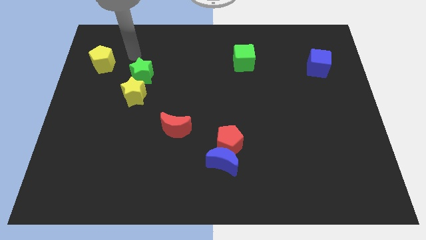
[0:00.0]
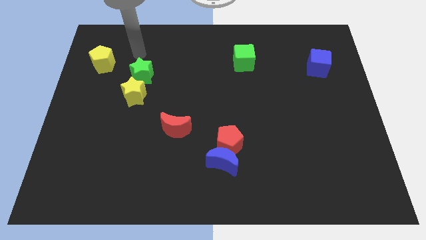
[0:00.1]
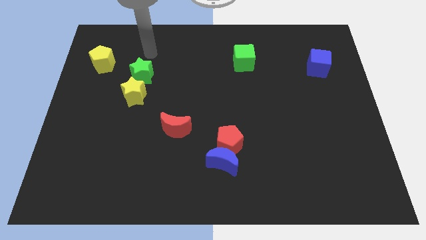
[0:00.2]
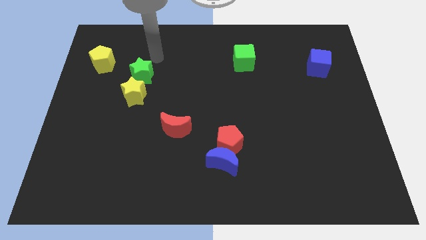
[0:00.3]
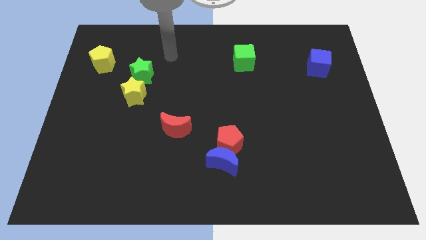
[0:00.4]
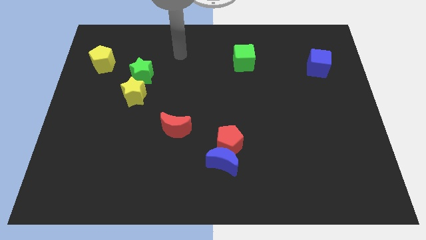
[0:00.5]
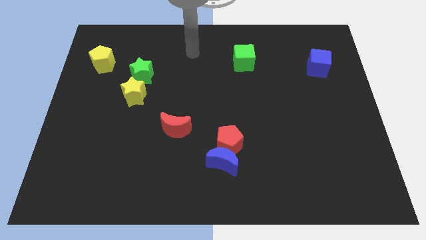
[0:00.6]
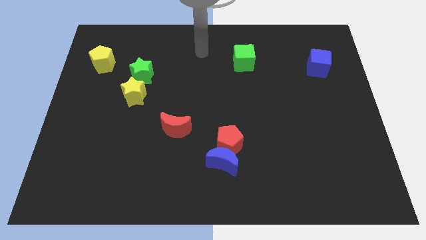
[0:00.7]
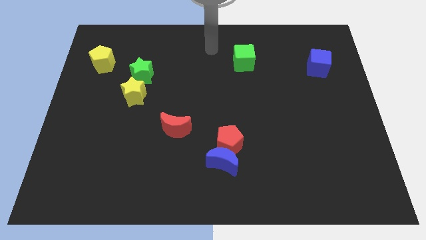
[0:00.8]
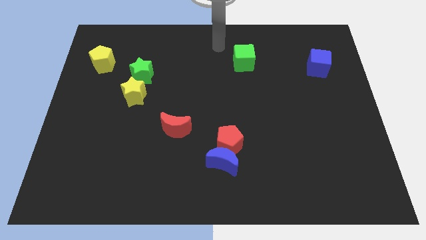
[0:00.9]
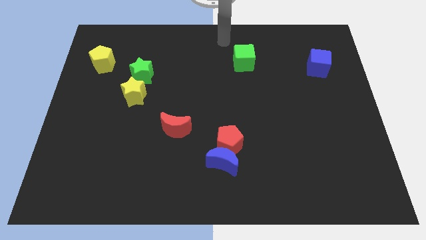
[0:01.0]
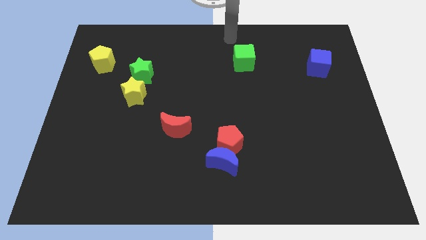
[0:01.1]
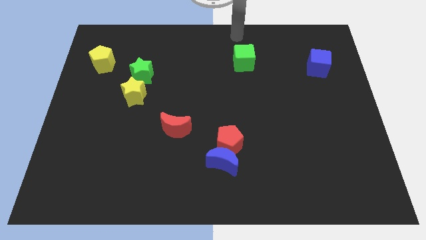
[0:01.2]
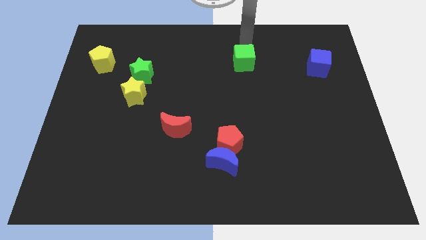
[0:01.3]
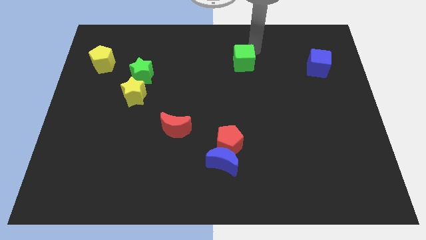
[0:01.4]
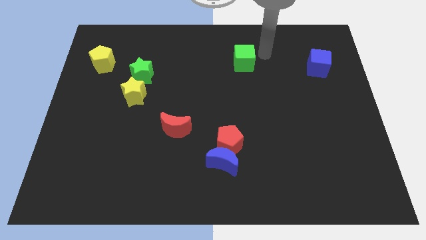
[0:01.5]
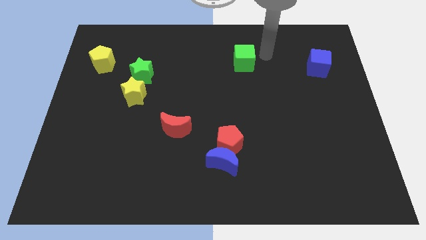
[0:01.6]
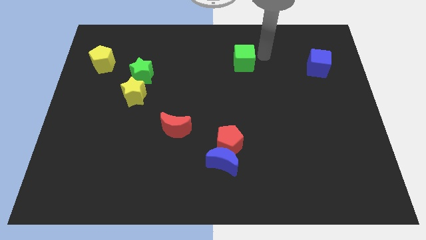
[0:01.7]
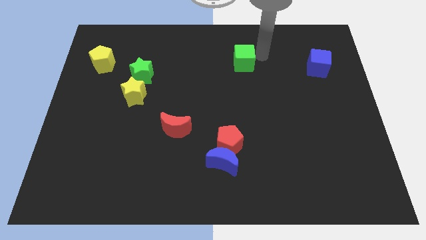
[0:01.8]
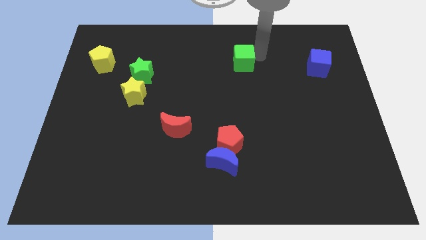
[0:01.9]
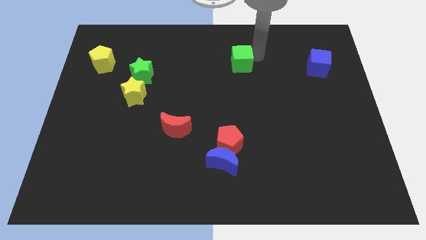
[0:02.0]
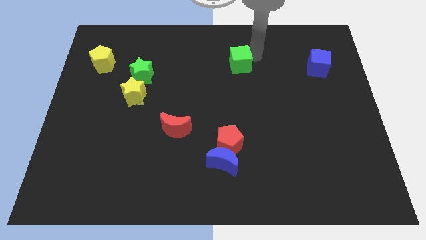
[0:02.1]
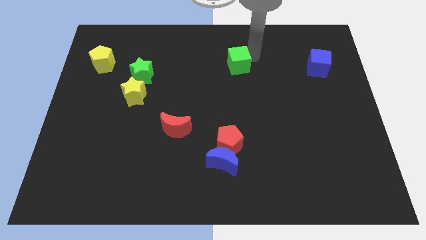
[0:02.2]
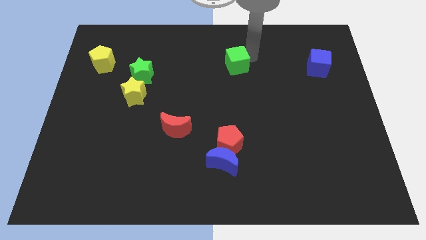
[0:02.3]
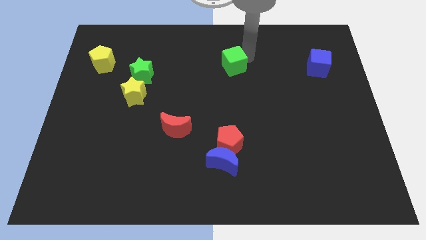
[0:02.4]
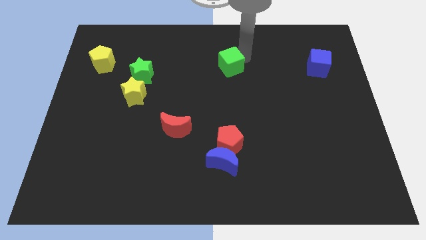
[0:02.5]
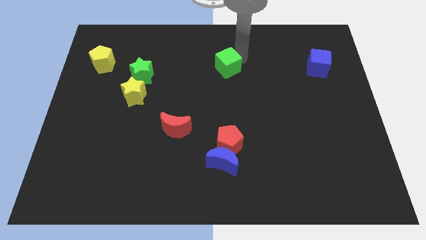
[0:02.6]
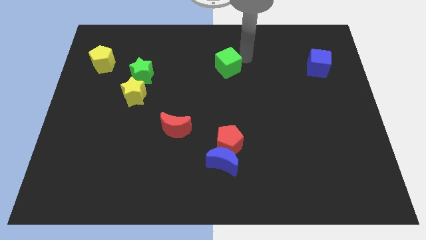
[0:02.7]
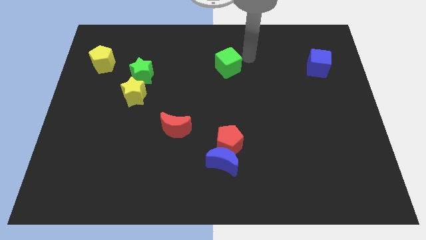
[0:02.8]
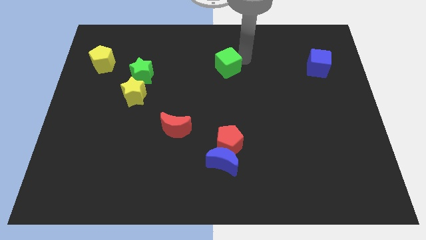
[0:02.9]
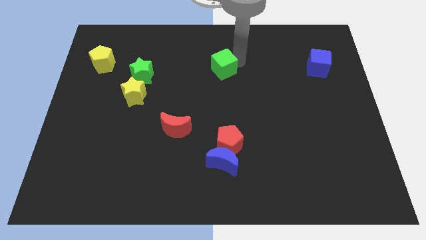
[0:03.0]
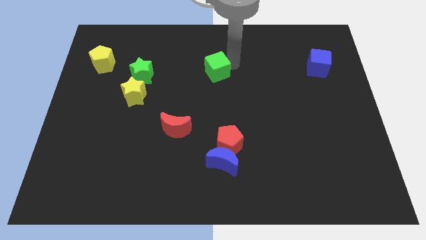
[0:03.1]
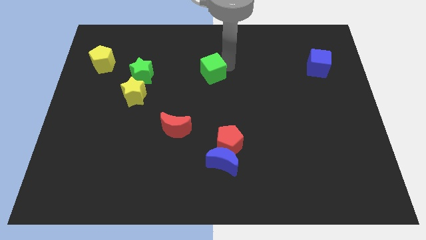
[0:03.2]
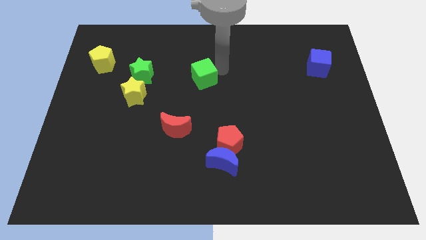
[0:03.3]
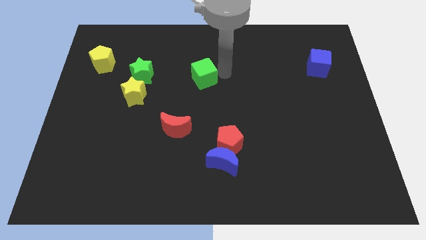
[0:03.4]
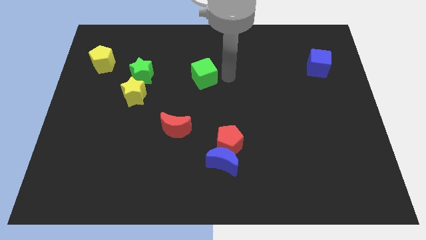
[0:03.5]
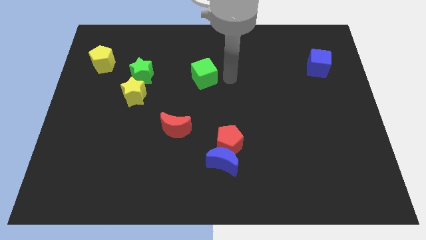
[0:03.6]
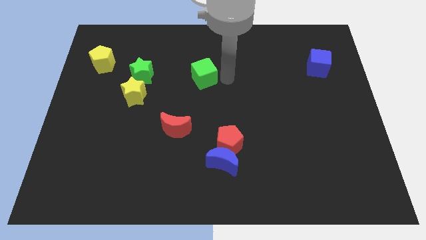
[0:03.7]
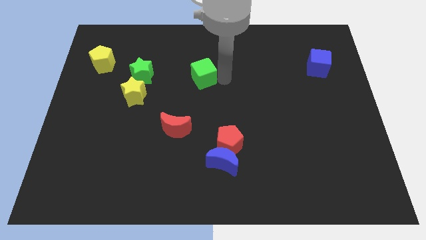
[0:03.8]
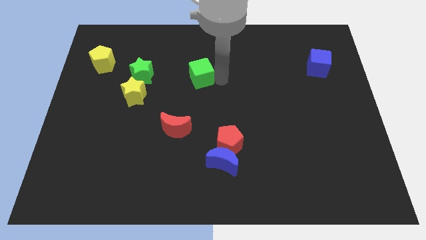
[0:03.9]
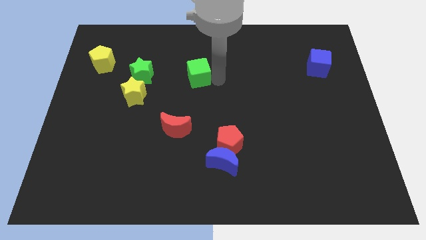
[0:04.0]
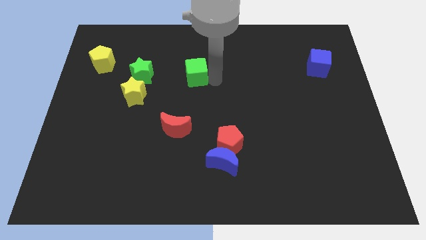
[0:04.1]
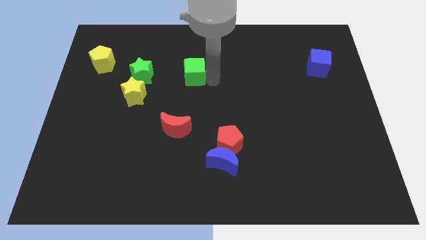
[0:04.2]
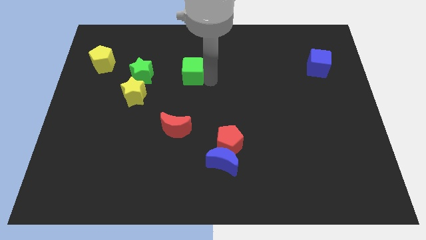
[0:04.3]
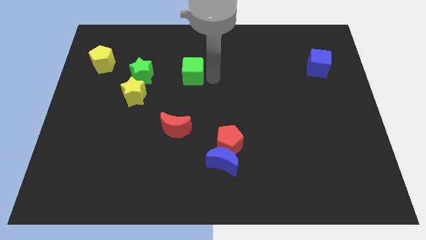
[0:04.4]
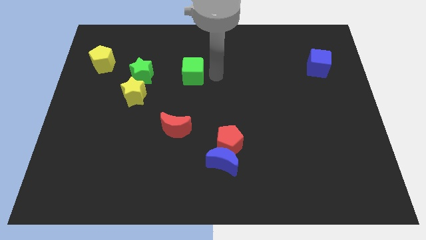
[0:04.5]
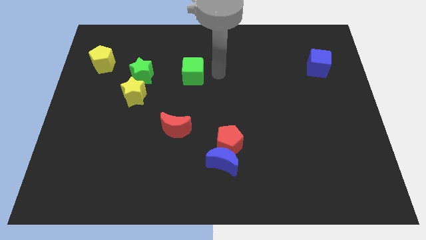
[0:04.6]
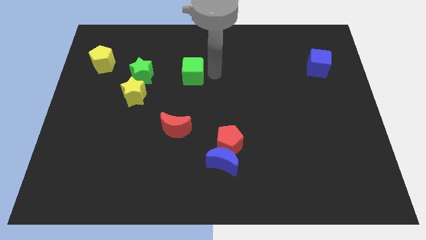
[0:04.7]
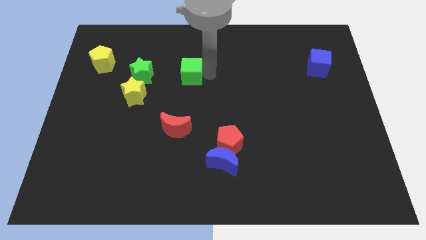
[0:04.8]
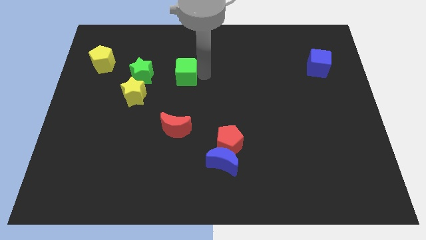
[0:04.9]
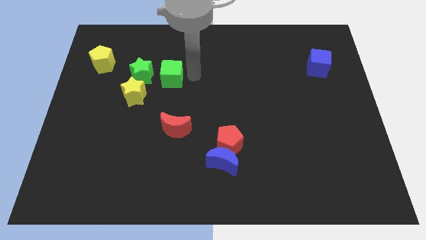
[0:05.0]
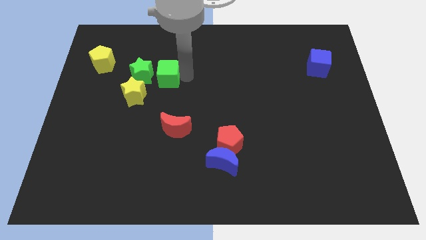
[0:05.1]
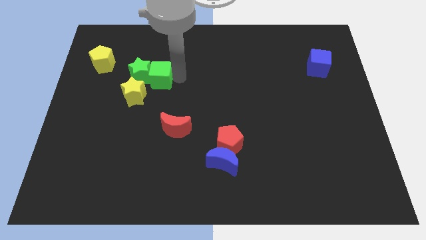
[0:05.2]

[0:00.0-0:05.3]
slide the green cube close to the green star

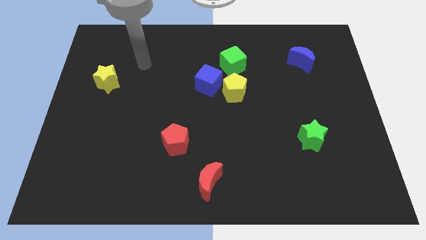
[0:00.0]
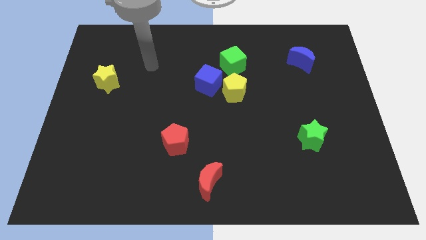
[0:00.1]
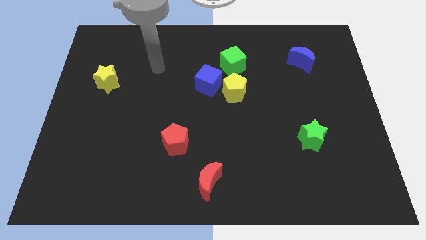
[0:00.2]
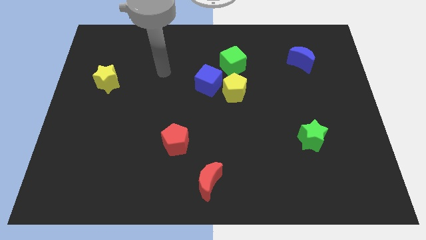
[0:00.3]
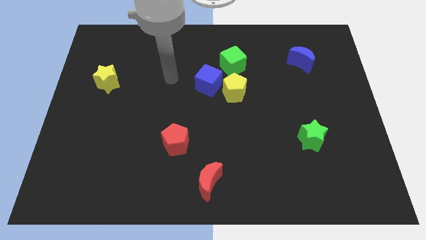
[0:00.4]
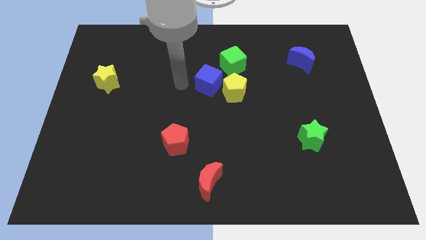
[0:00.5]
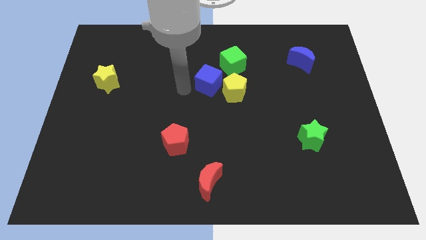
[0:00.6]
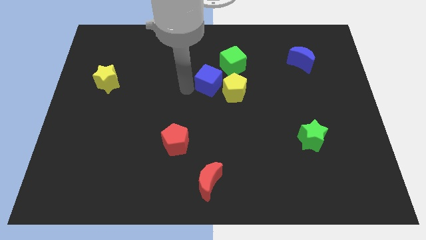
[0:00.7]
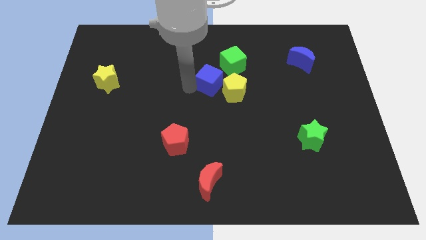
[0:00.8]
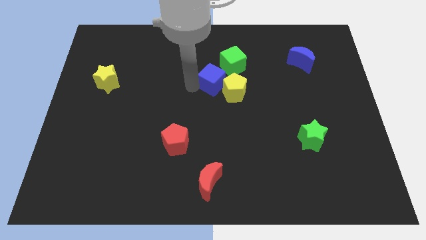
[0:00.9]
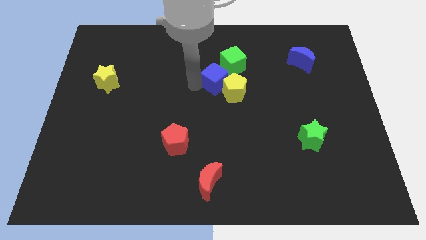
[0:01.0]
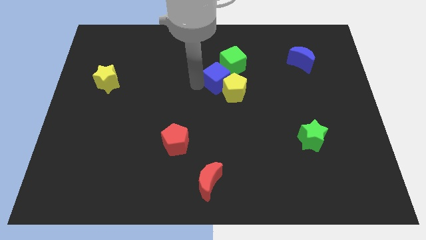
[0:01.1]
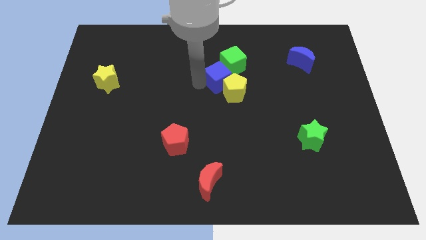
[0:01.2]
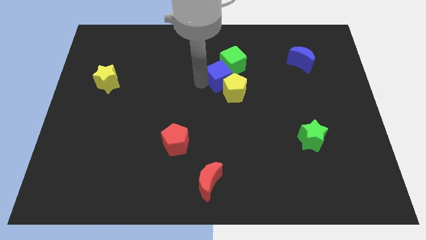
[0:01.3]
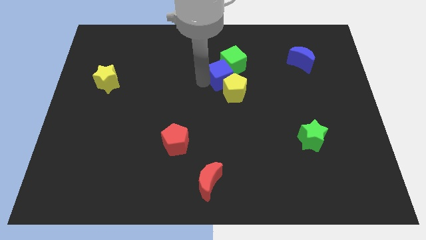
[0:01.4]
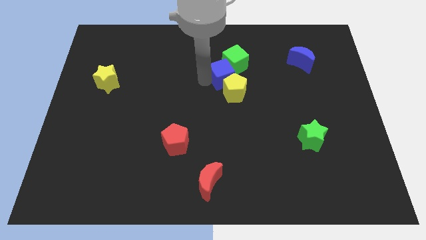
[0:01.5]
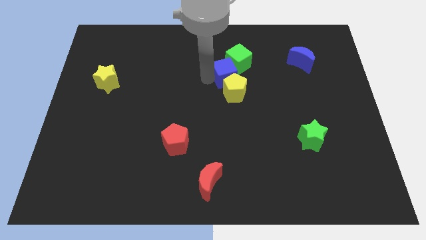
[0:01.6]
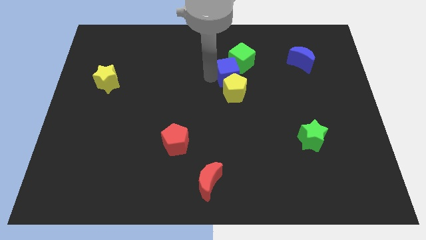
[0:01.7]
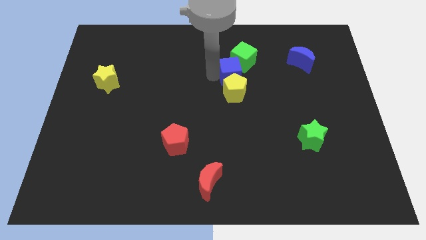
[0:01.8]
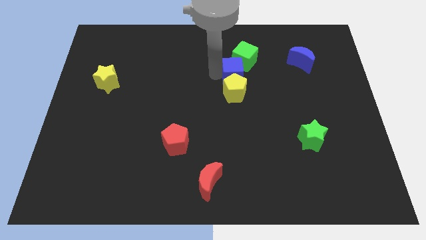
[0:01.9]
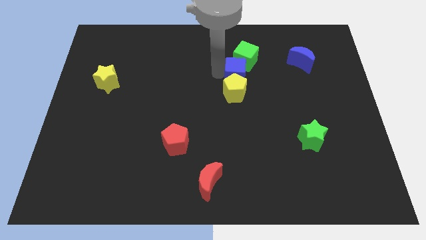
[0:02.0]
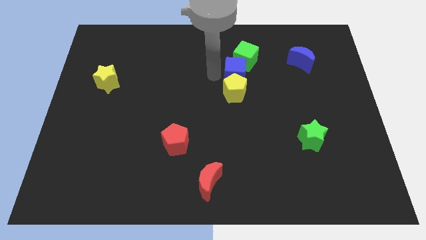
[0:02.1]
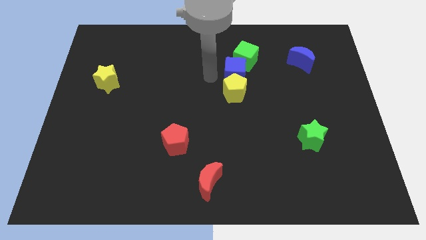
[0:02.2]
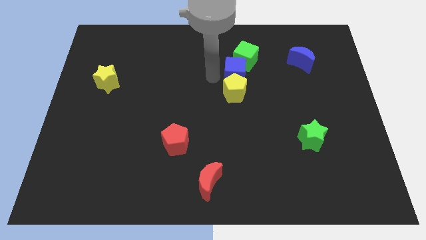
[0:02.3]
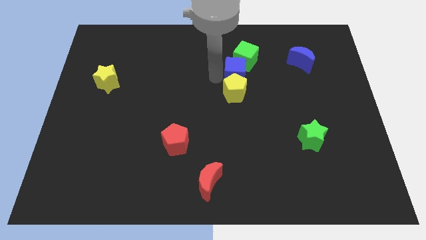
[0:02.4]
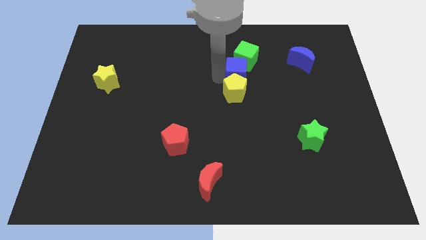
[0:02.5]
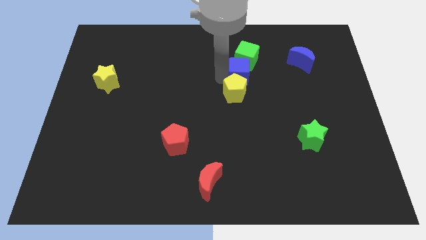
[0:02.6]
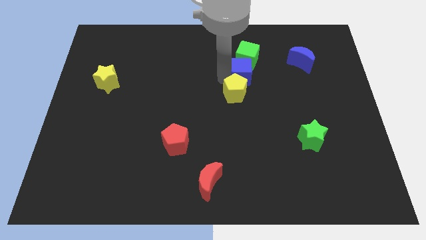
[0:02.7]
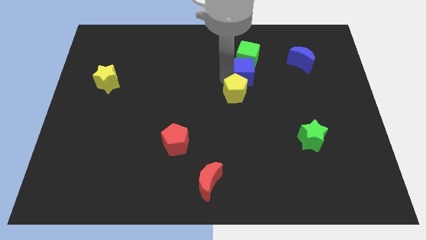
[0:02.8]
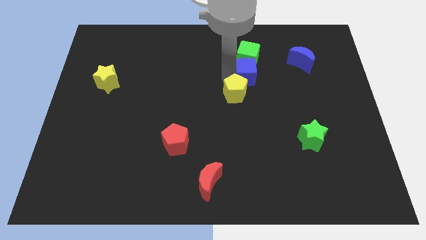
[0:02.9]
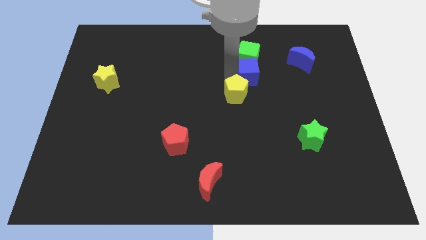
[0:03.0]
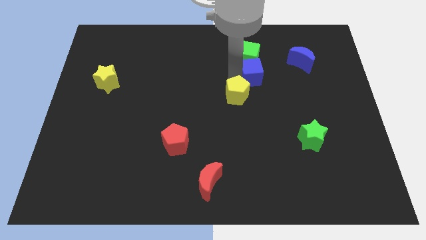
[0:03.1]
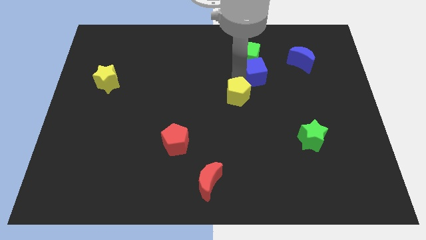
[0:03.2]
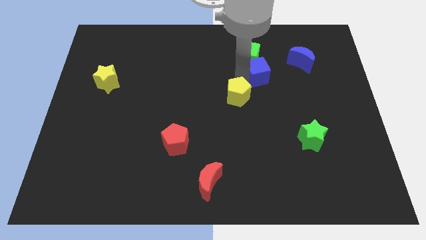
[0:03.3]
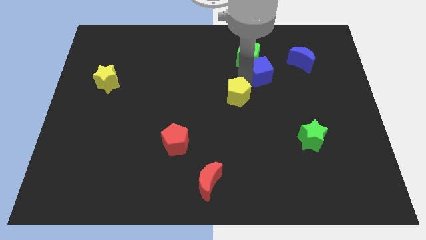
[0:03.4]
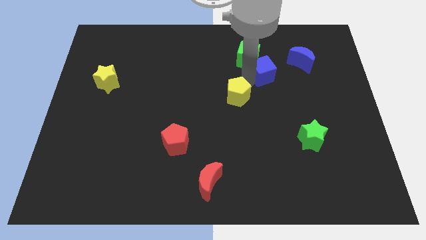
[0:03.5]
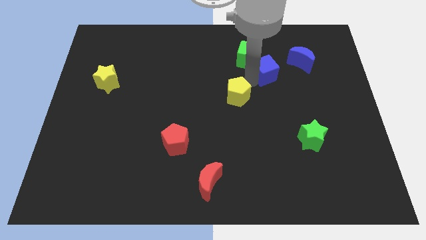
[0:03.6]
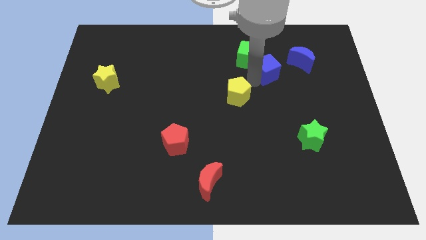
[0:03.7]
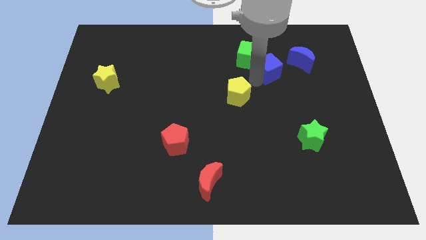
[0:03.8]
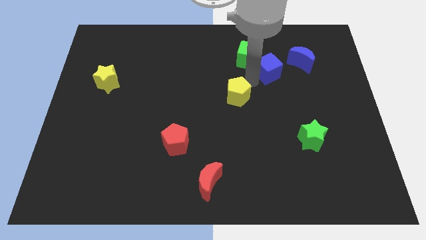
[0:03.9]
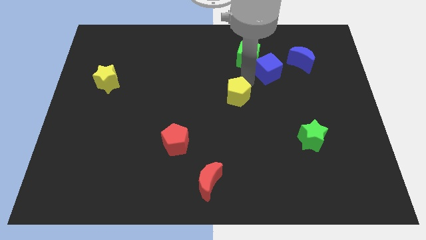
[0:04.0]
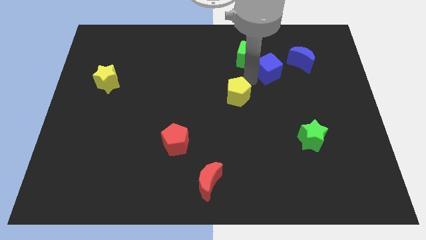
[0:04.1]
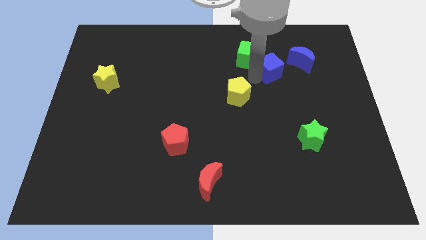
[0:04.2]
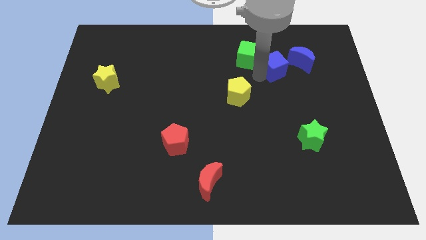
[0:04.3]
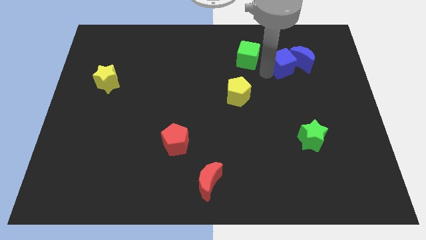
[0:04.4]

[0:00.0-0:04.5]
push the blue cube next to the blue moon
